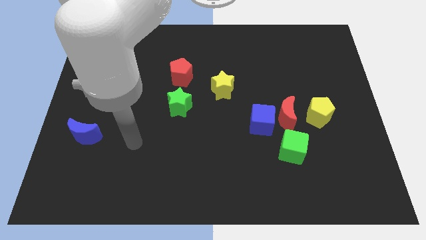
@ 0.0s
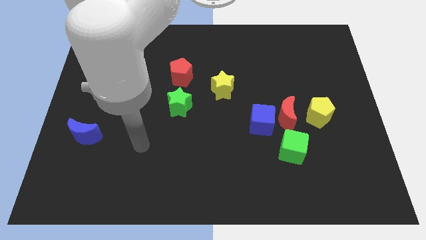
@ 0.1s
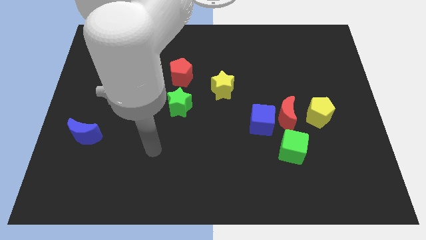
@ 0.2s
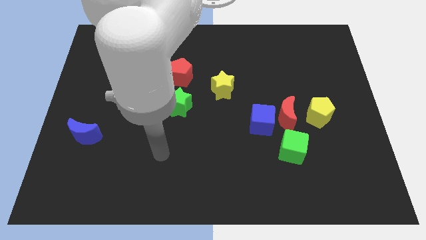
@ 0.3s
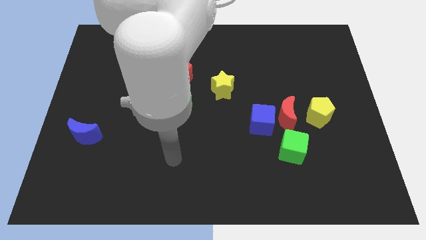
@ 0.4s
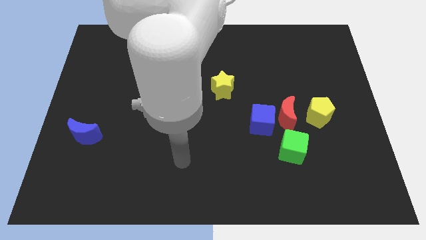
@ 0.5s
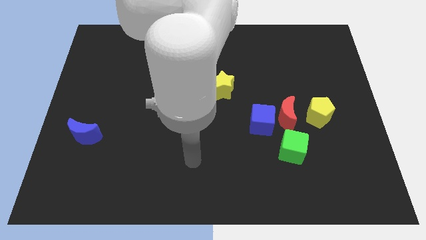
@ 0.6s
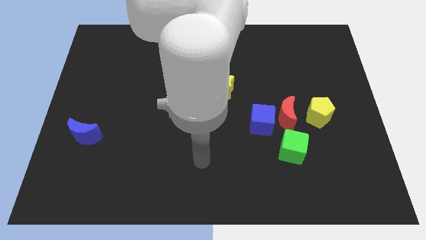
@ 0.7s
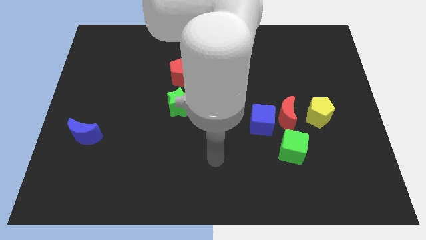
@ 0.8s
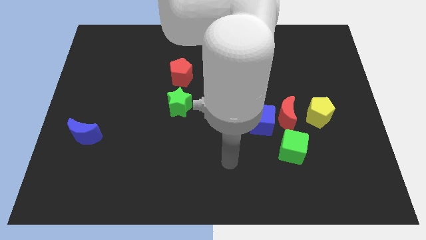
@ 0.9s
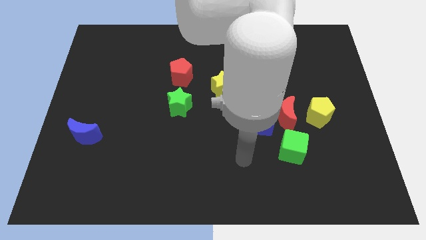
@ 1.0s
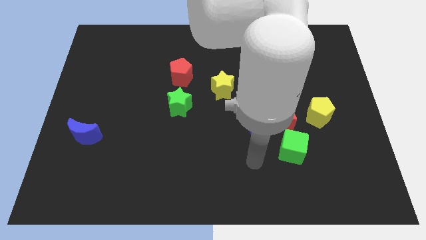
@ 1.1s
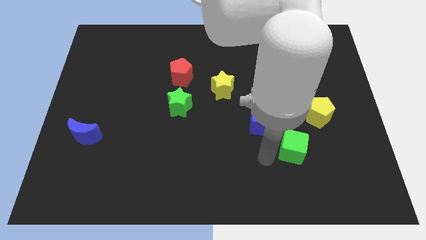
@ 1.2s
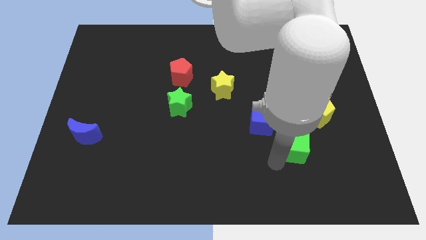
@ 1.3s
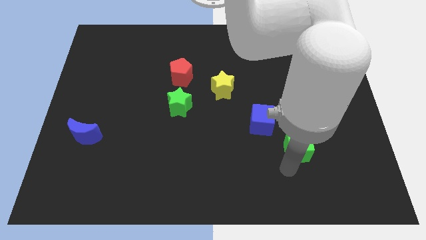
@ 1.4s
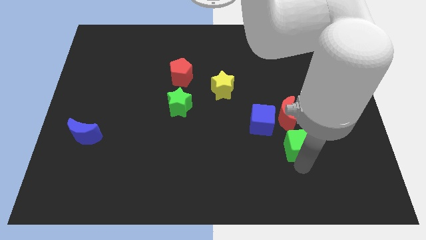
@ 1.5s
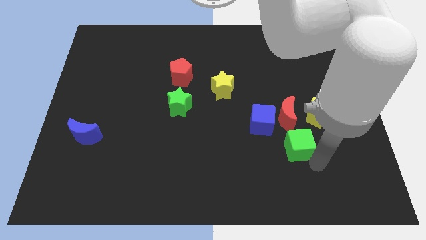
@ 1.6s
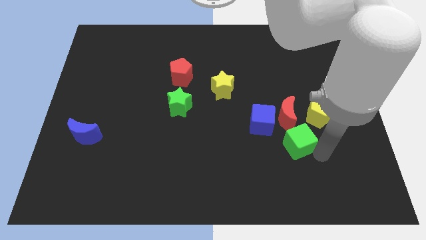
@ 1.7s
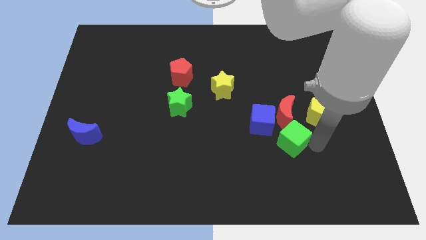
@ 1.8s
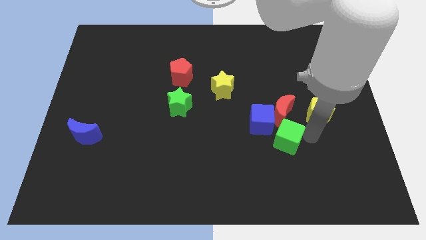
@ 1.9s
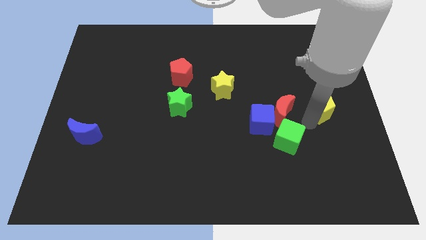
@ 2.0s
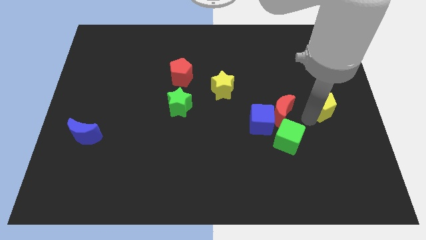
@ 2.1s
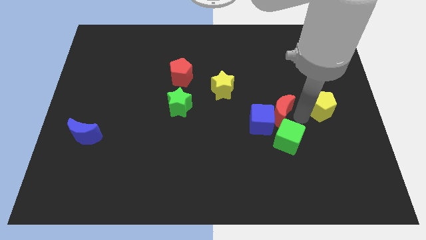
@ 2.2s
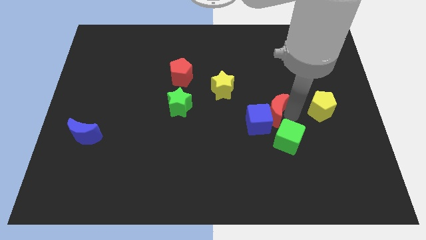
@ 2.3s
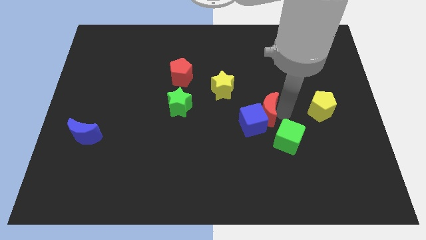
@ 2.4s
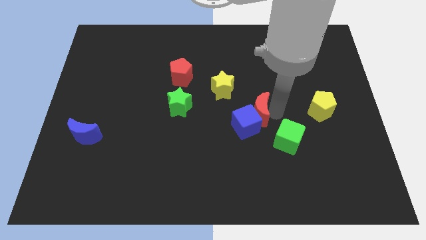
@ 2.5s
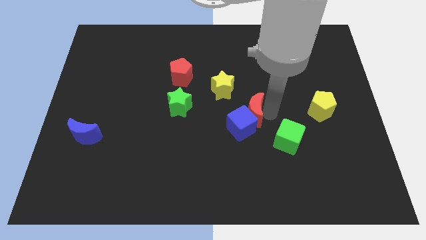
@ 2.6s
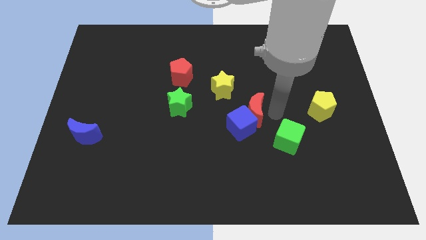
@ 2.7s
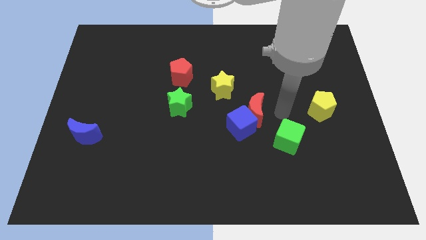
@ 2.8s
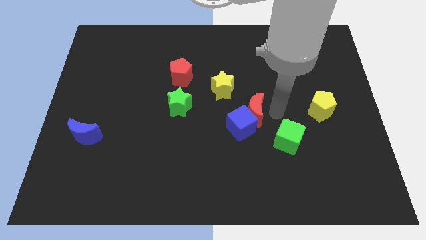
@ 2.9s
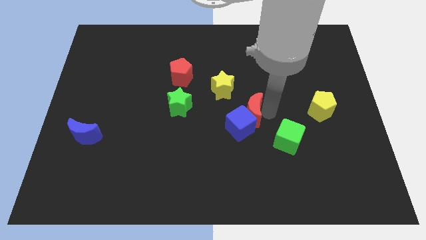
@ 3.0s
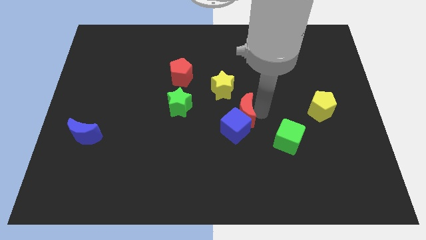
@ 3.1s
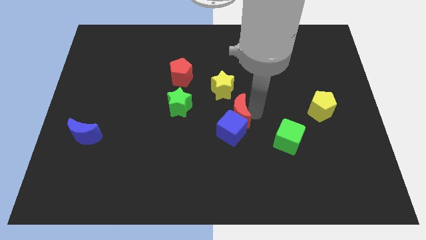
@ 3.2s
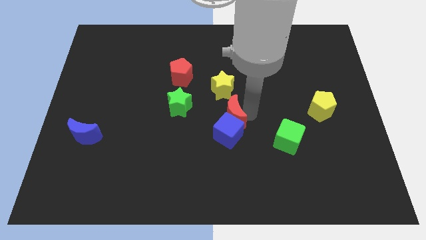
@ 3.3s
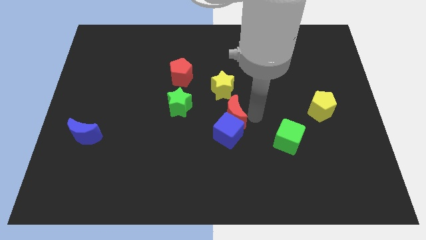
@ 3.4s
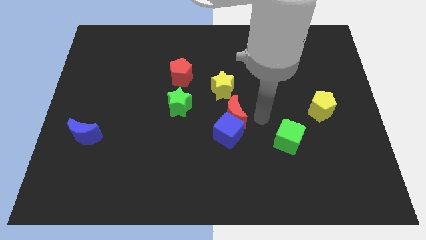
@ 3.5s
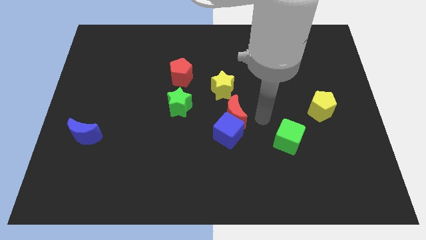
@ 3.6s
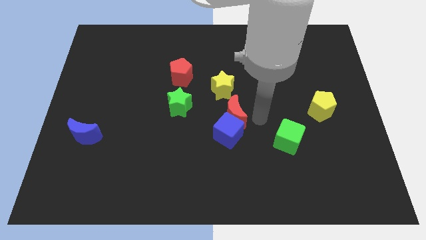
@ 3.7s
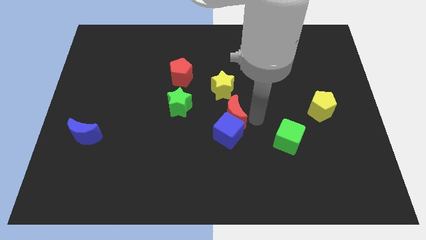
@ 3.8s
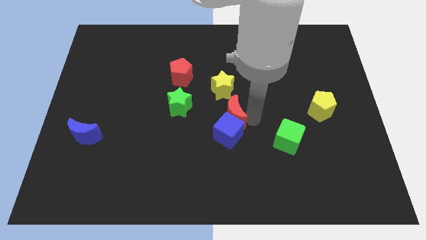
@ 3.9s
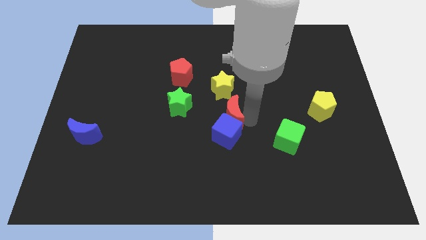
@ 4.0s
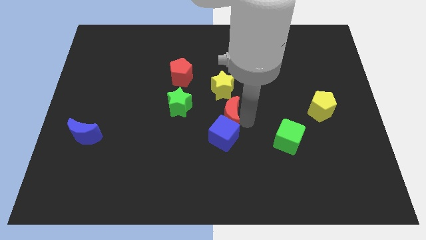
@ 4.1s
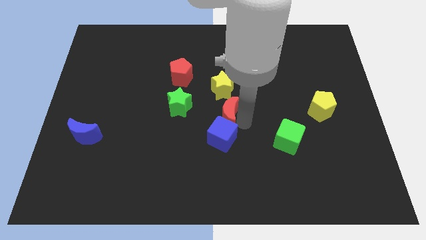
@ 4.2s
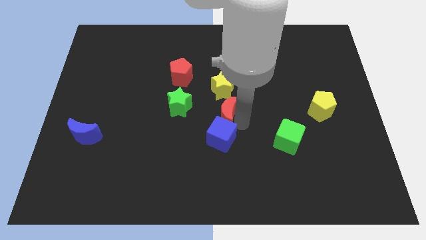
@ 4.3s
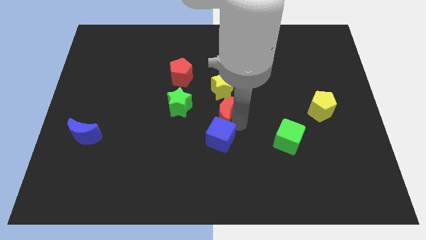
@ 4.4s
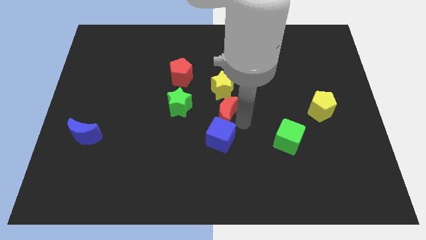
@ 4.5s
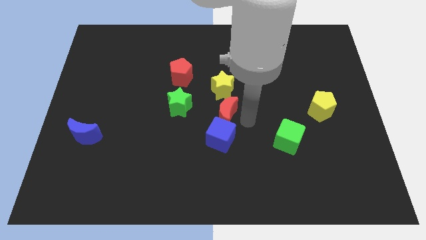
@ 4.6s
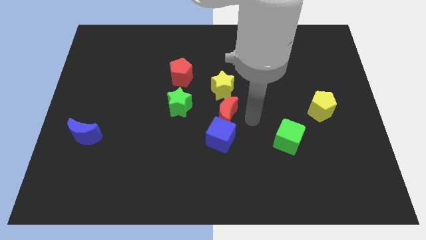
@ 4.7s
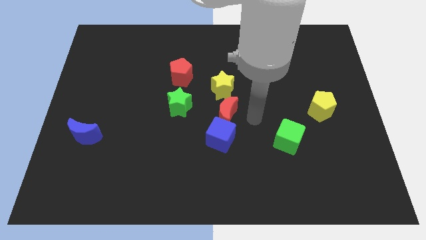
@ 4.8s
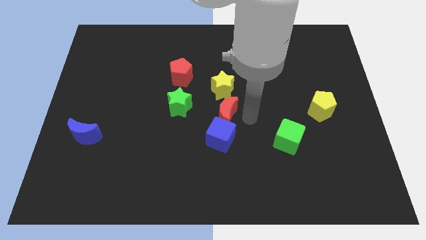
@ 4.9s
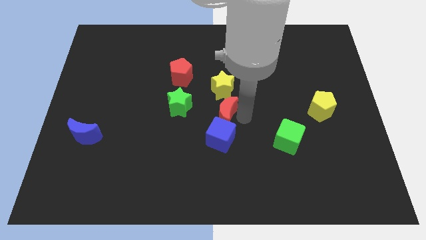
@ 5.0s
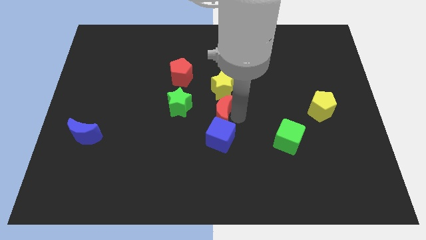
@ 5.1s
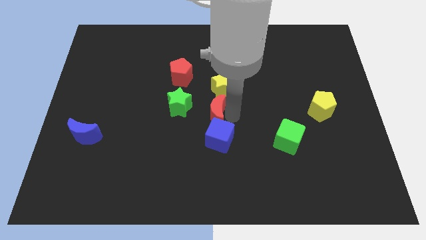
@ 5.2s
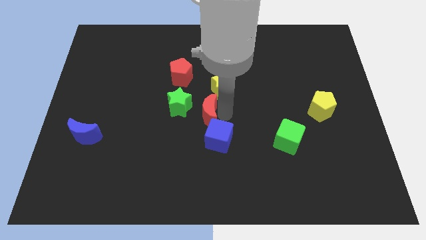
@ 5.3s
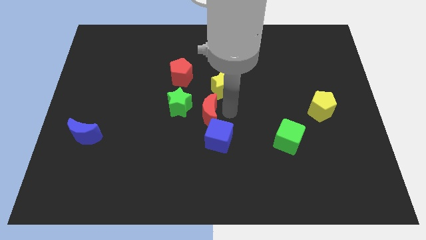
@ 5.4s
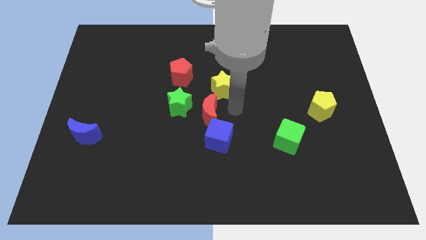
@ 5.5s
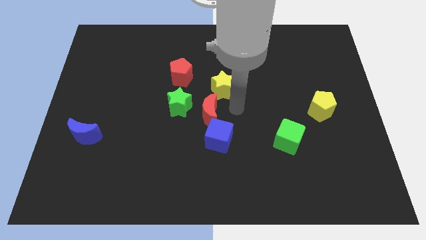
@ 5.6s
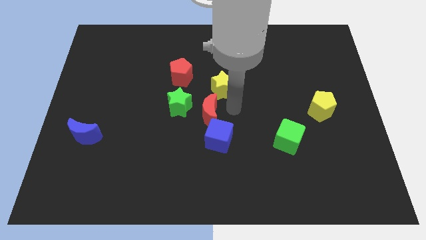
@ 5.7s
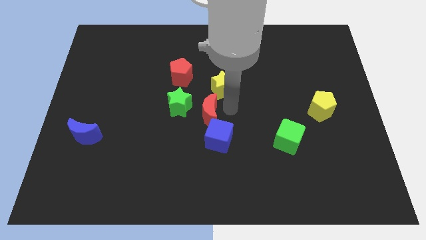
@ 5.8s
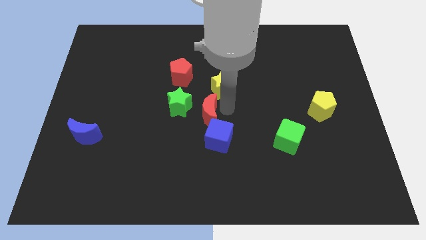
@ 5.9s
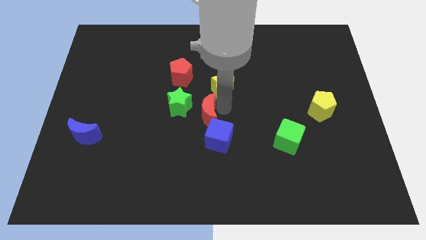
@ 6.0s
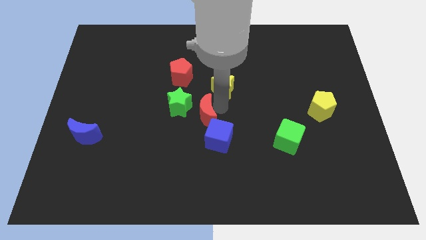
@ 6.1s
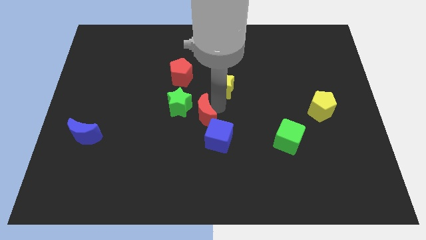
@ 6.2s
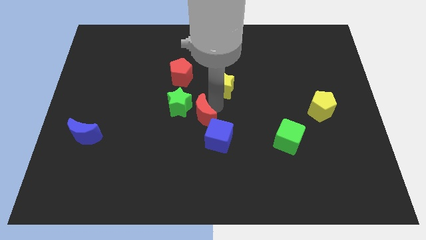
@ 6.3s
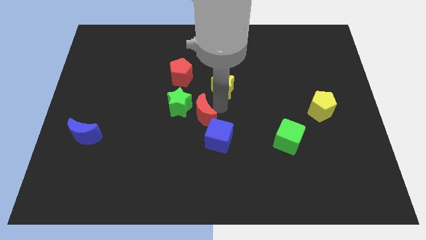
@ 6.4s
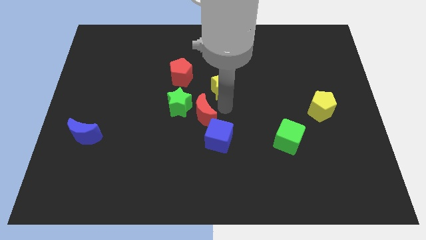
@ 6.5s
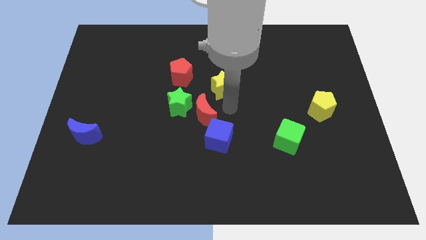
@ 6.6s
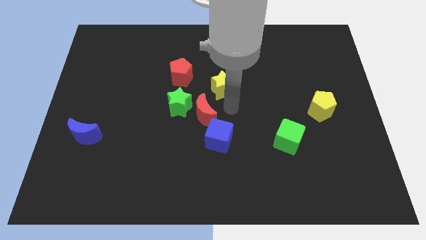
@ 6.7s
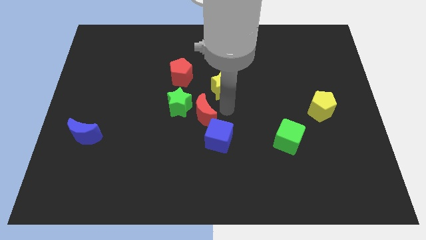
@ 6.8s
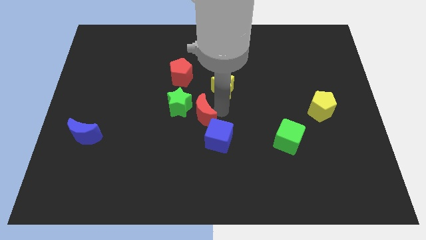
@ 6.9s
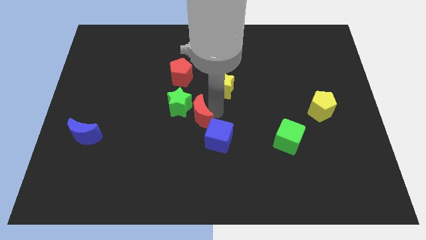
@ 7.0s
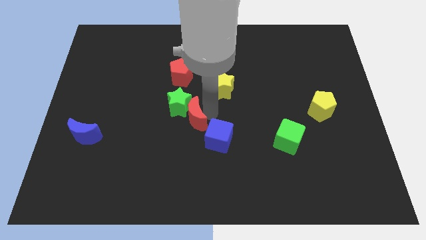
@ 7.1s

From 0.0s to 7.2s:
put the red moon below the red pentagon

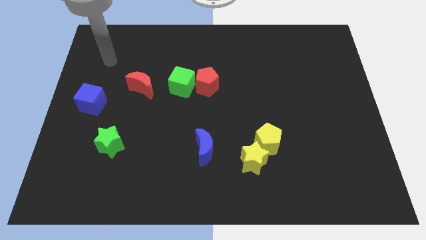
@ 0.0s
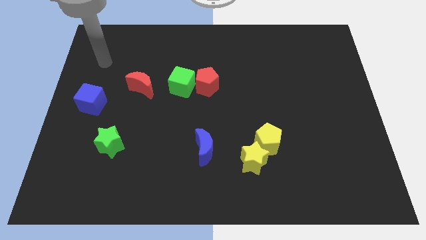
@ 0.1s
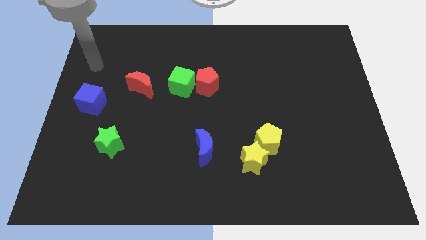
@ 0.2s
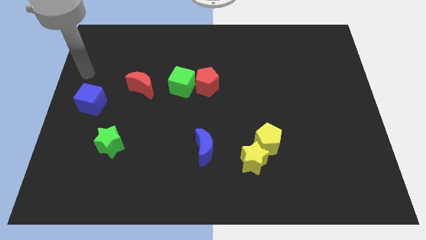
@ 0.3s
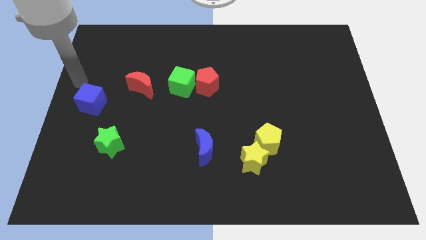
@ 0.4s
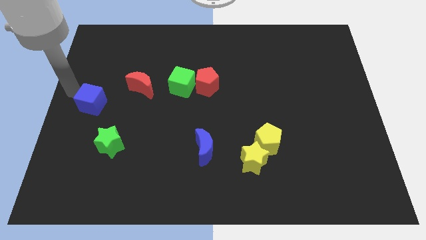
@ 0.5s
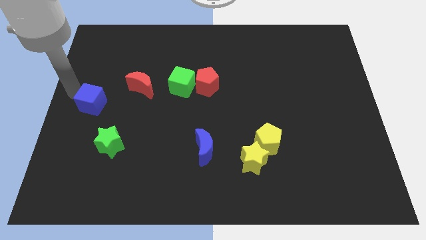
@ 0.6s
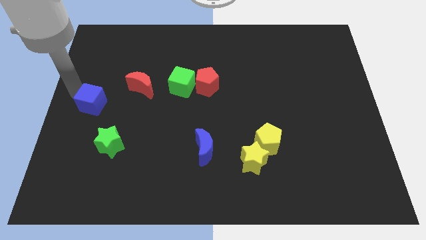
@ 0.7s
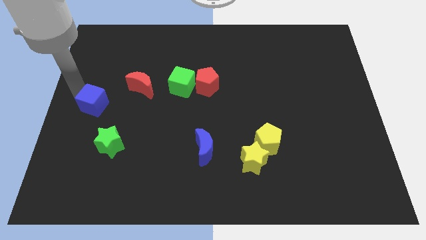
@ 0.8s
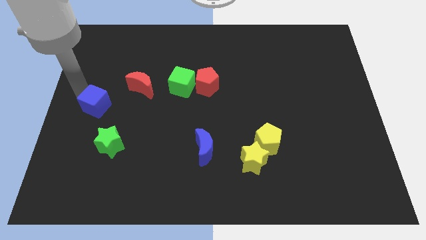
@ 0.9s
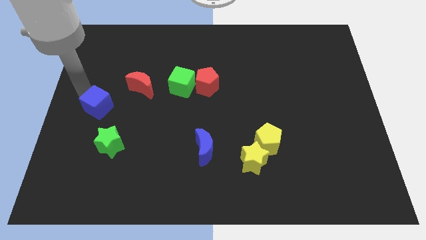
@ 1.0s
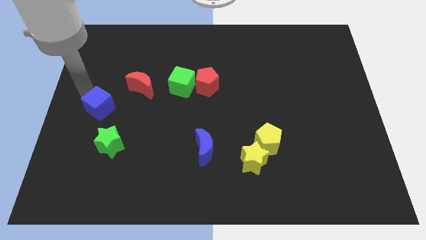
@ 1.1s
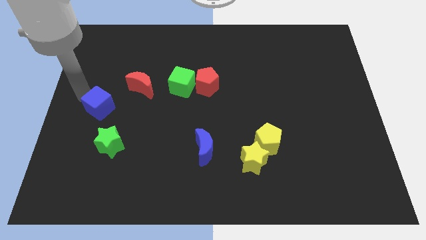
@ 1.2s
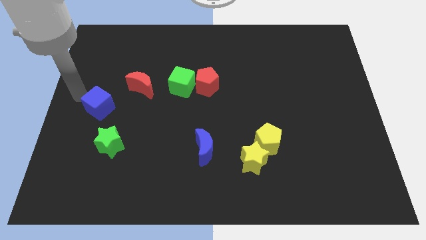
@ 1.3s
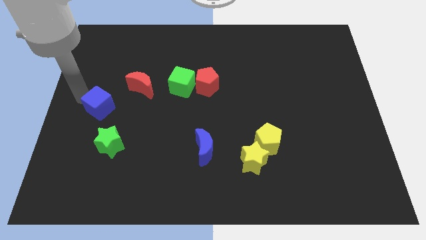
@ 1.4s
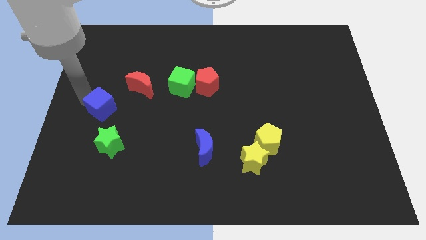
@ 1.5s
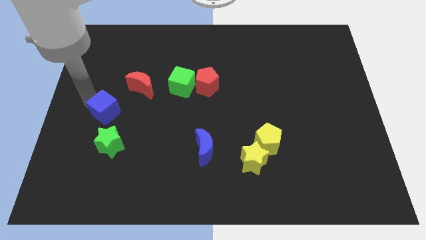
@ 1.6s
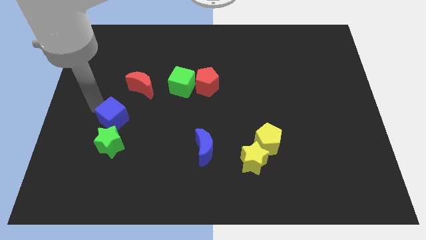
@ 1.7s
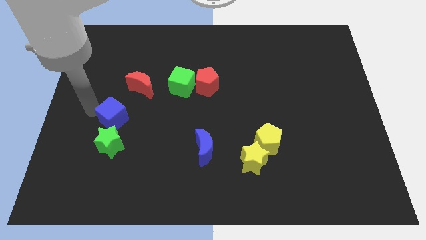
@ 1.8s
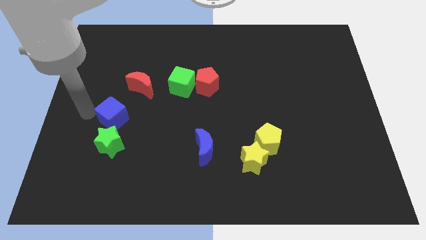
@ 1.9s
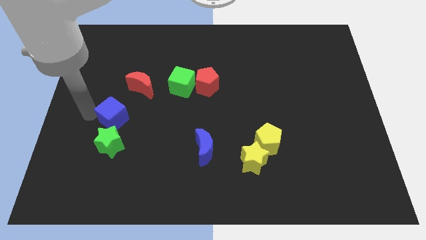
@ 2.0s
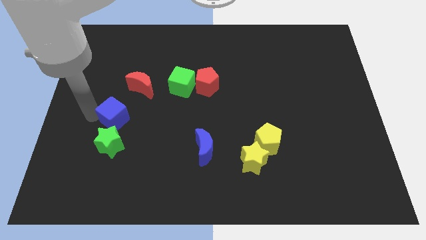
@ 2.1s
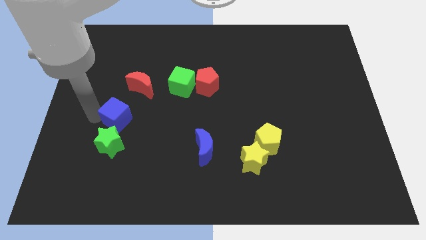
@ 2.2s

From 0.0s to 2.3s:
move the blue cube below the red moon
